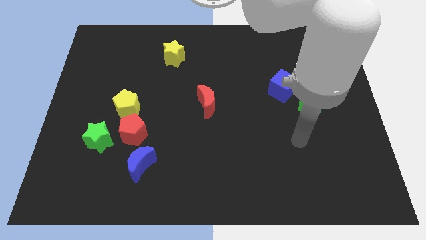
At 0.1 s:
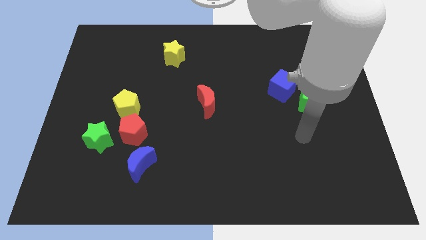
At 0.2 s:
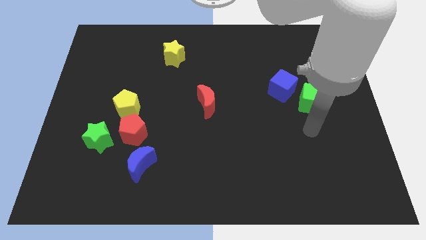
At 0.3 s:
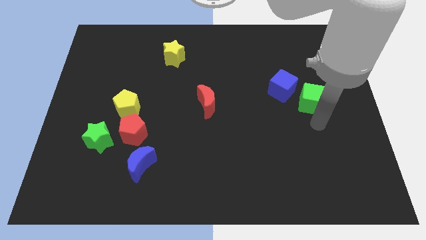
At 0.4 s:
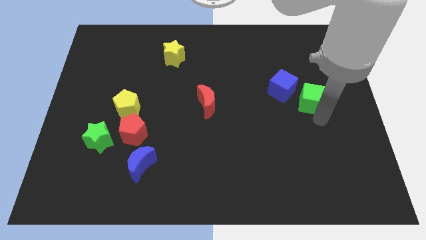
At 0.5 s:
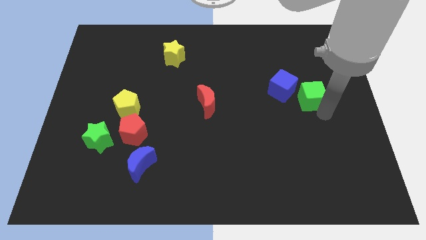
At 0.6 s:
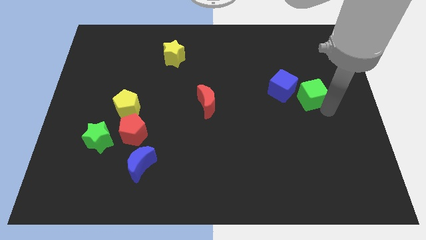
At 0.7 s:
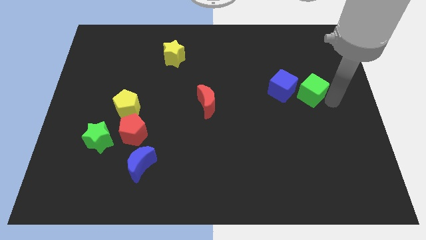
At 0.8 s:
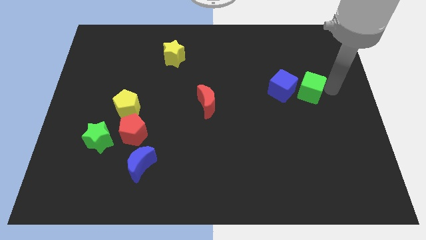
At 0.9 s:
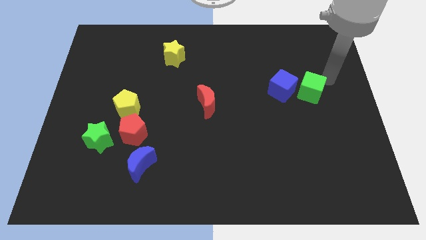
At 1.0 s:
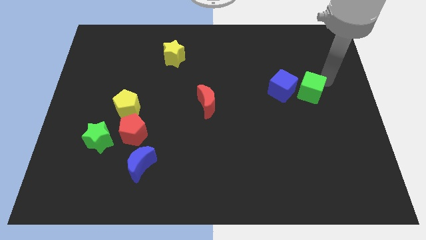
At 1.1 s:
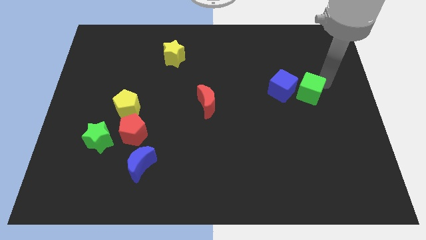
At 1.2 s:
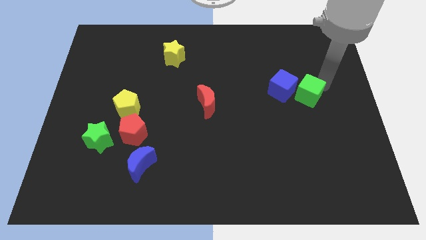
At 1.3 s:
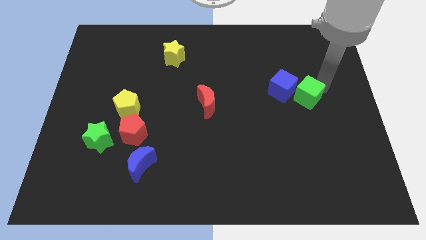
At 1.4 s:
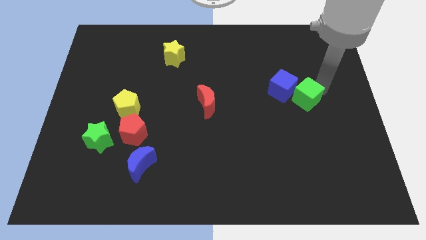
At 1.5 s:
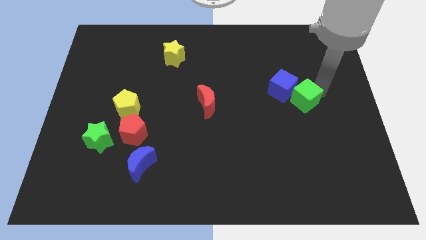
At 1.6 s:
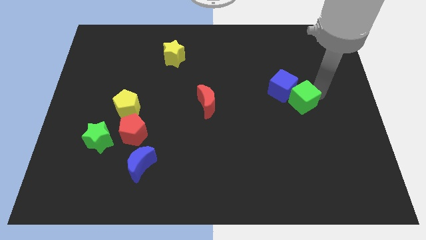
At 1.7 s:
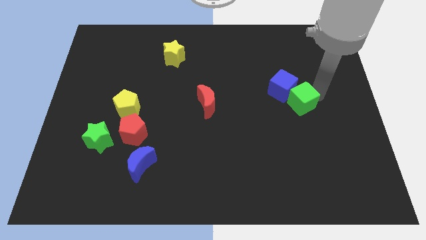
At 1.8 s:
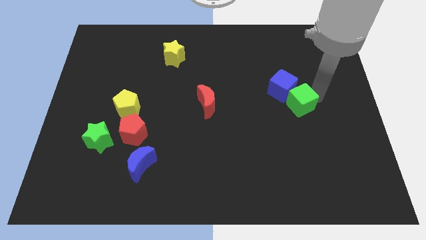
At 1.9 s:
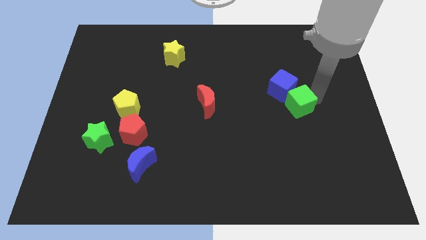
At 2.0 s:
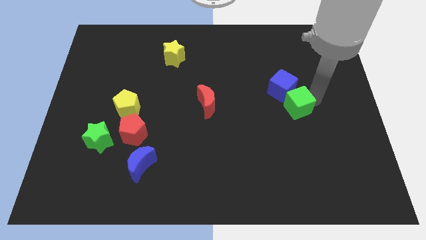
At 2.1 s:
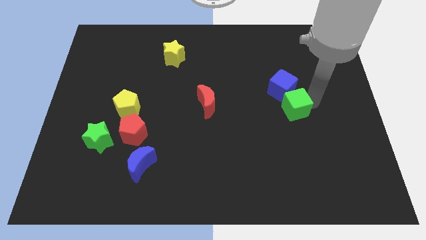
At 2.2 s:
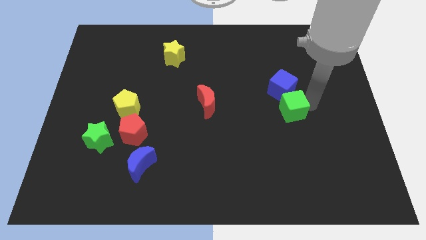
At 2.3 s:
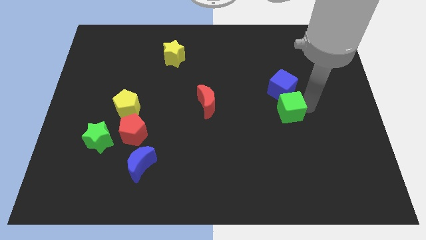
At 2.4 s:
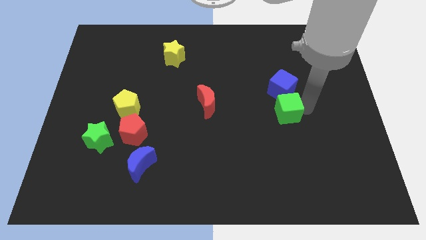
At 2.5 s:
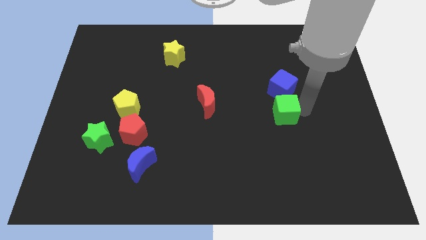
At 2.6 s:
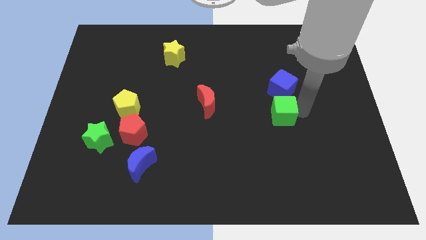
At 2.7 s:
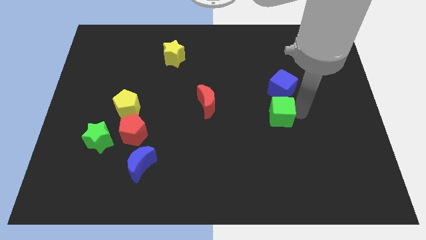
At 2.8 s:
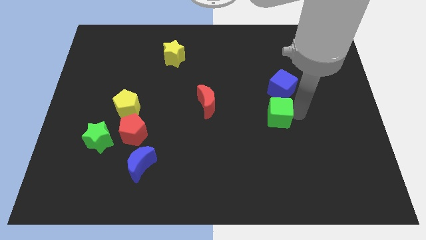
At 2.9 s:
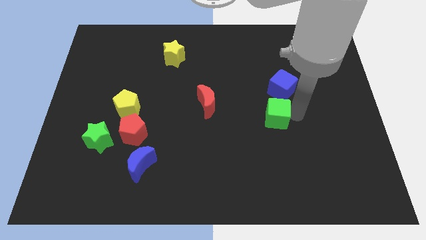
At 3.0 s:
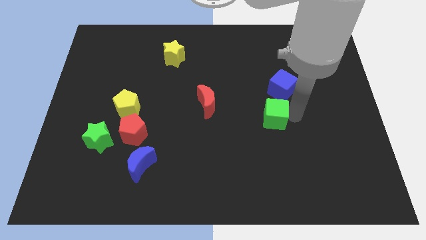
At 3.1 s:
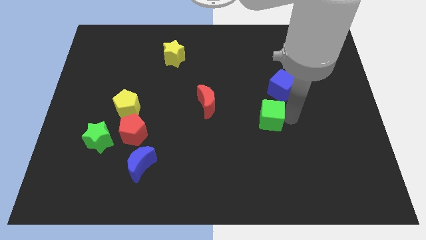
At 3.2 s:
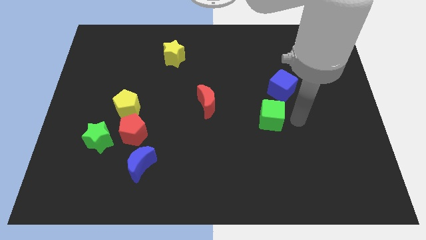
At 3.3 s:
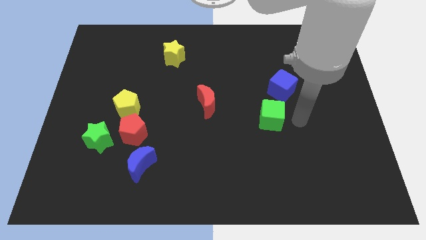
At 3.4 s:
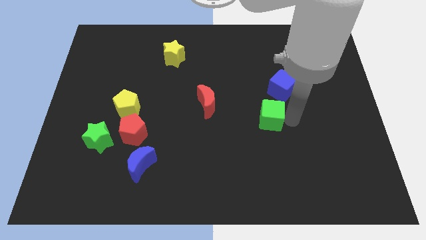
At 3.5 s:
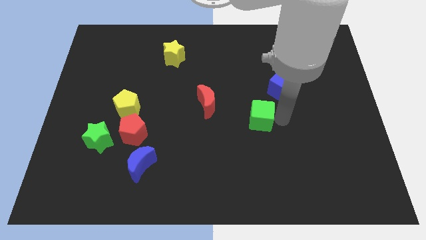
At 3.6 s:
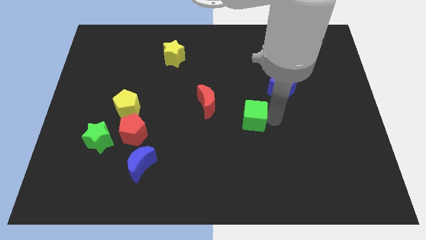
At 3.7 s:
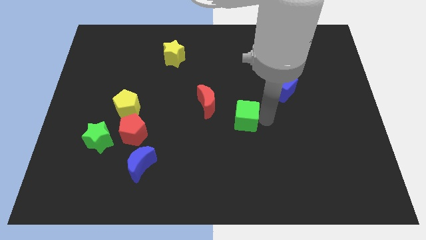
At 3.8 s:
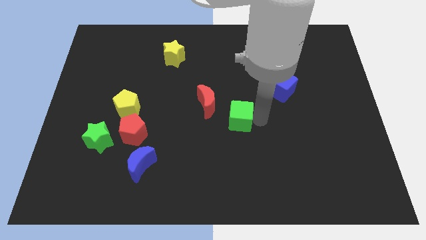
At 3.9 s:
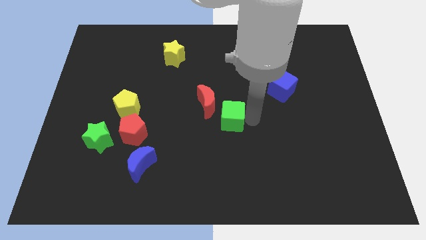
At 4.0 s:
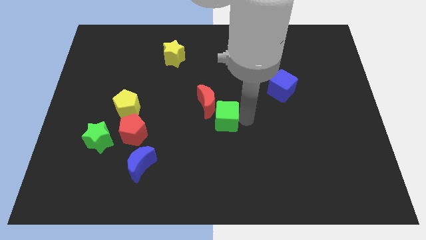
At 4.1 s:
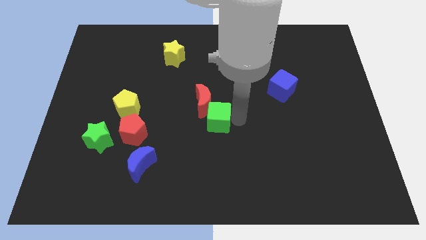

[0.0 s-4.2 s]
move the green cube to the left

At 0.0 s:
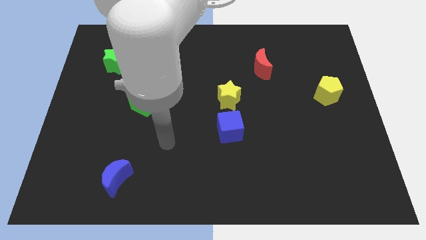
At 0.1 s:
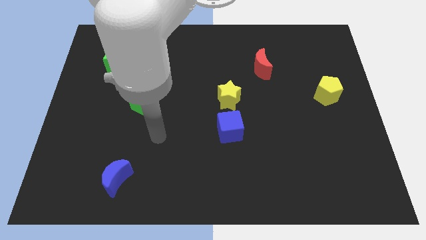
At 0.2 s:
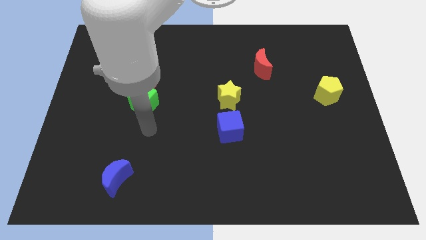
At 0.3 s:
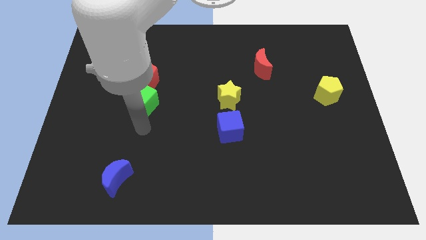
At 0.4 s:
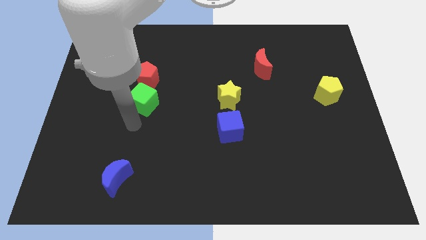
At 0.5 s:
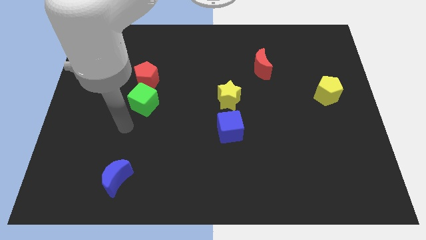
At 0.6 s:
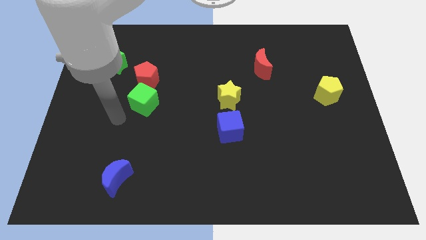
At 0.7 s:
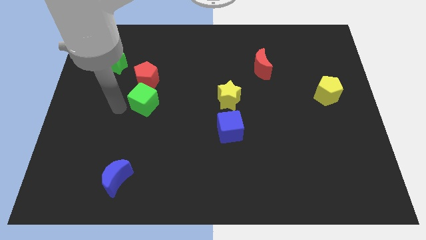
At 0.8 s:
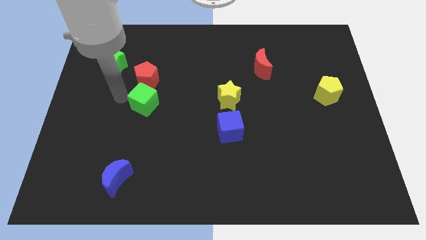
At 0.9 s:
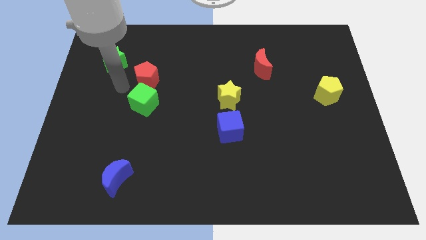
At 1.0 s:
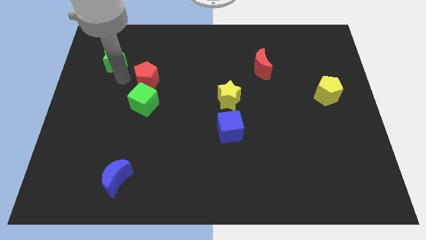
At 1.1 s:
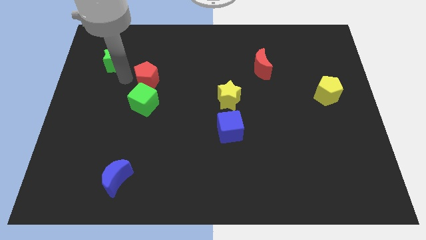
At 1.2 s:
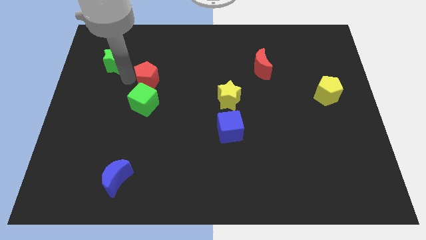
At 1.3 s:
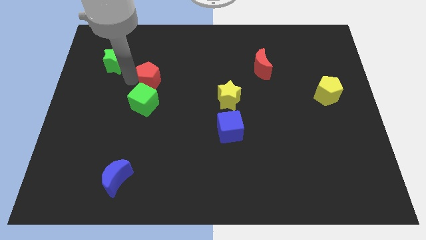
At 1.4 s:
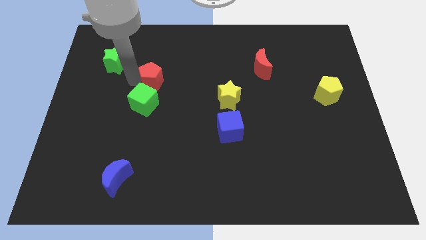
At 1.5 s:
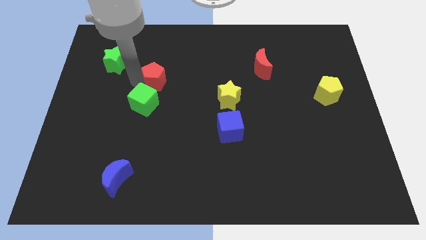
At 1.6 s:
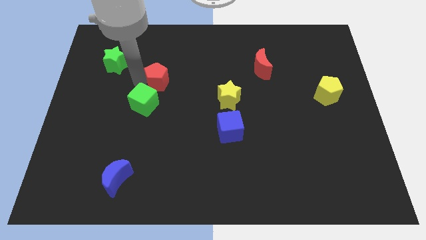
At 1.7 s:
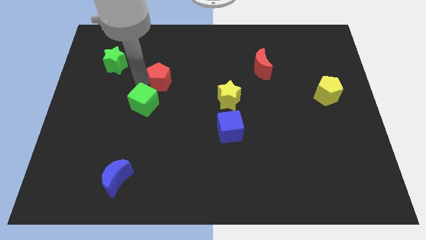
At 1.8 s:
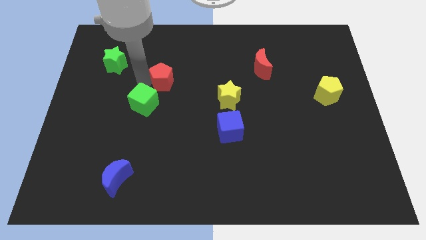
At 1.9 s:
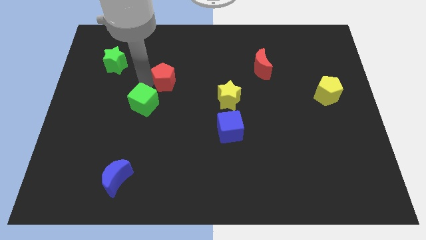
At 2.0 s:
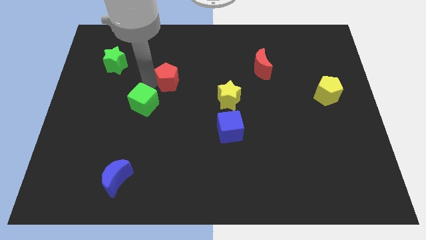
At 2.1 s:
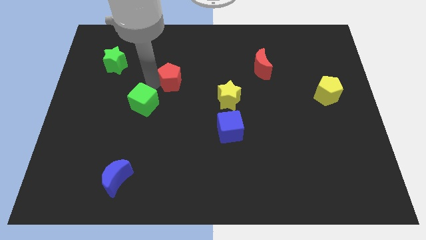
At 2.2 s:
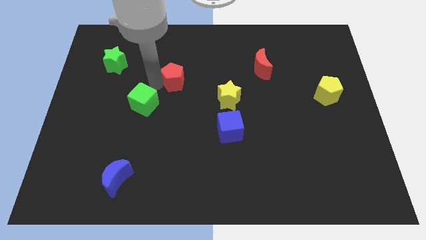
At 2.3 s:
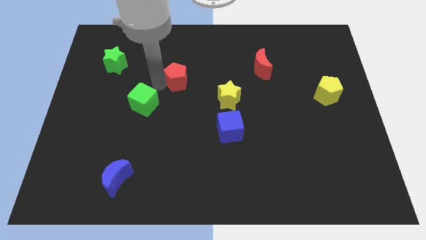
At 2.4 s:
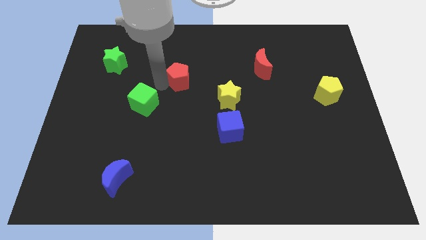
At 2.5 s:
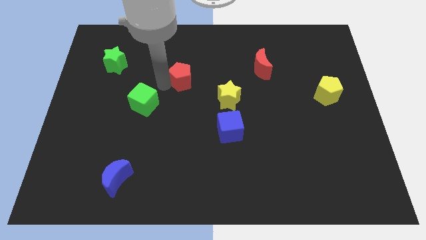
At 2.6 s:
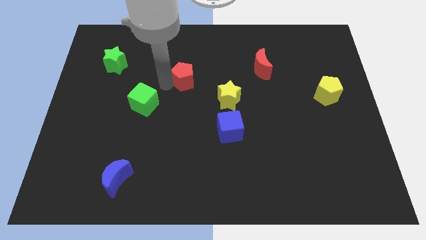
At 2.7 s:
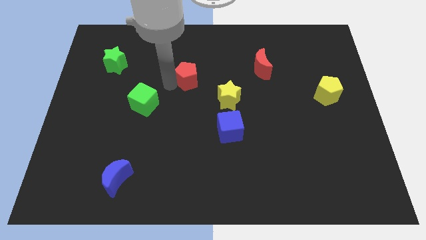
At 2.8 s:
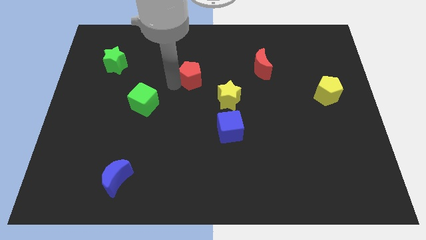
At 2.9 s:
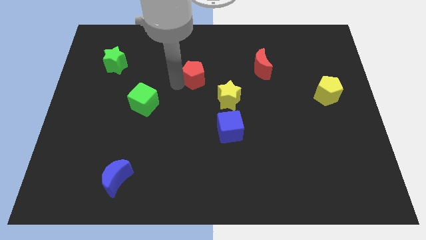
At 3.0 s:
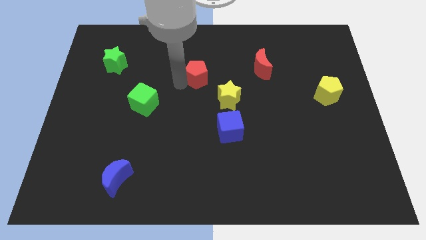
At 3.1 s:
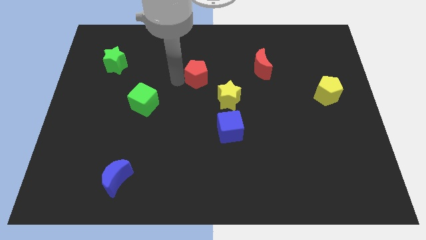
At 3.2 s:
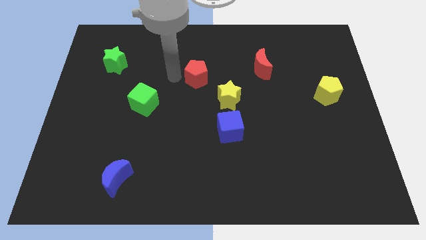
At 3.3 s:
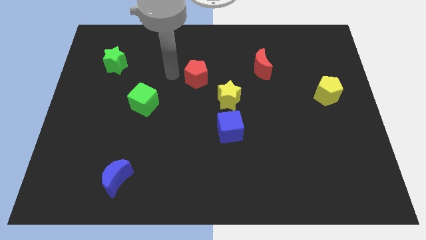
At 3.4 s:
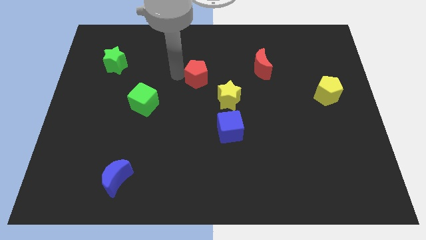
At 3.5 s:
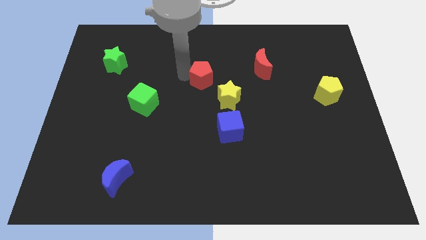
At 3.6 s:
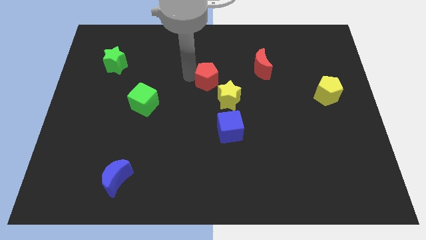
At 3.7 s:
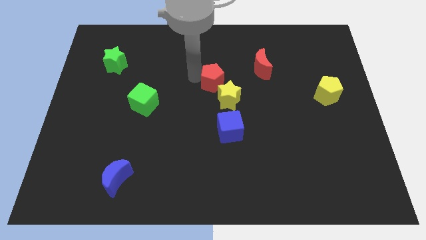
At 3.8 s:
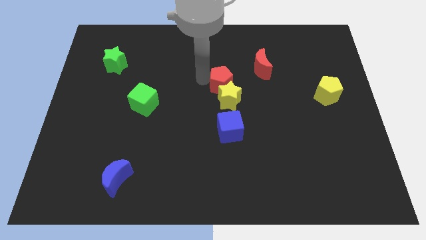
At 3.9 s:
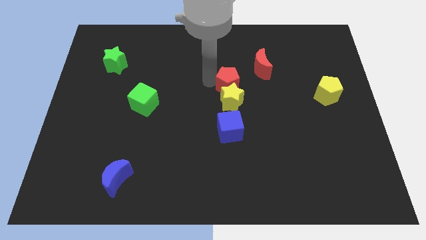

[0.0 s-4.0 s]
slide the red pentagon right
